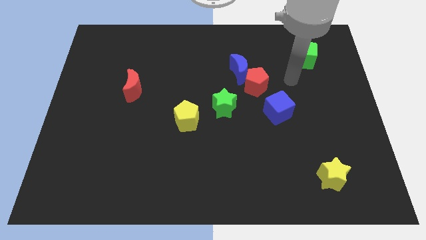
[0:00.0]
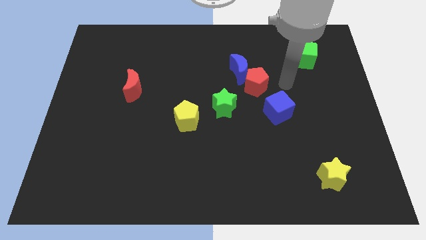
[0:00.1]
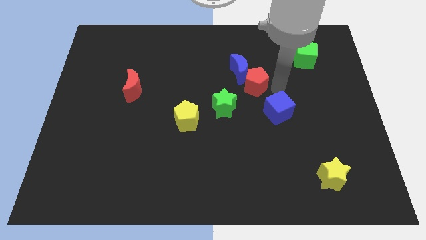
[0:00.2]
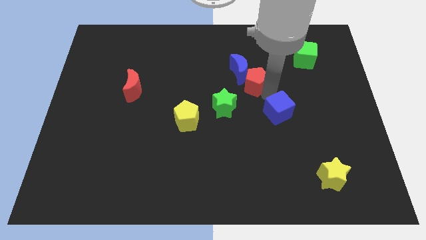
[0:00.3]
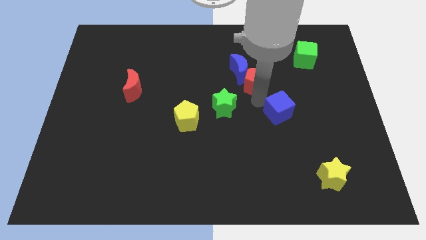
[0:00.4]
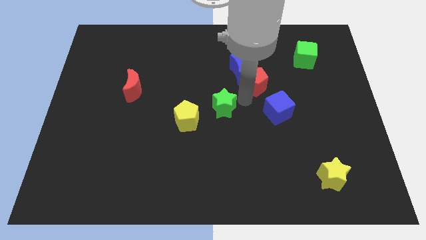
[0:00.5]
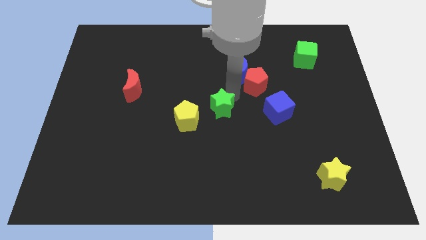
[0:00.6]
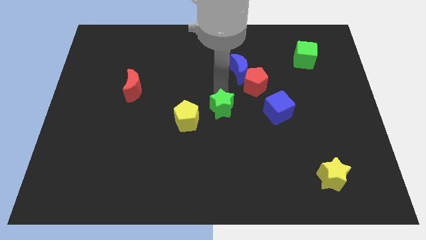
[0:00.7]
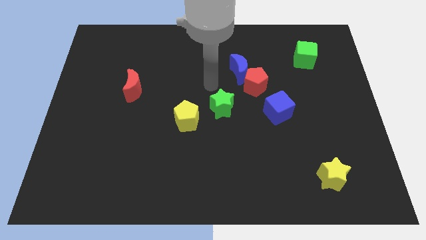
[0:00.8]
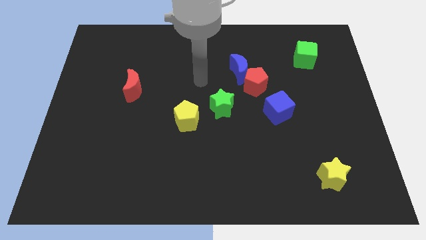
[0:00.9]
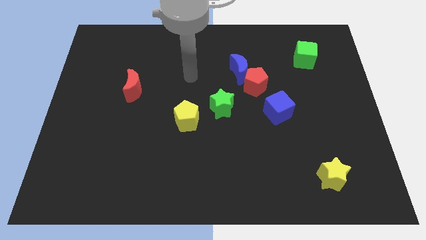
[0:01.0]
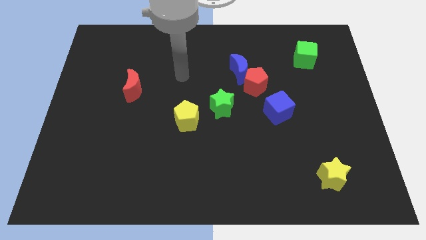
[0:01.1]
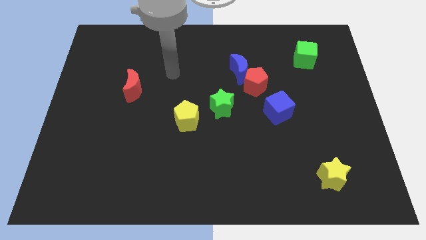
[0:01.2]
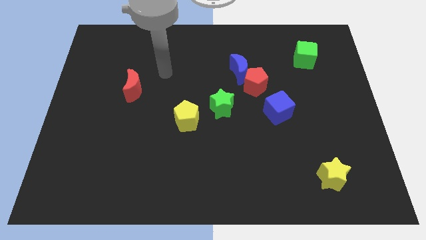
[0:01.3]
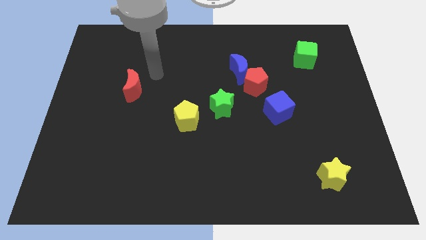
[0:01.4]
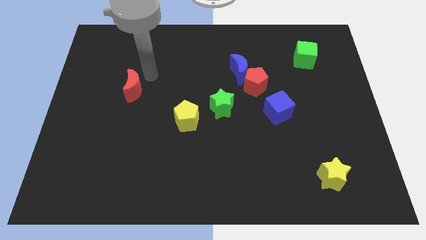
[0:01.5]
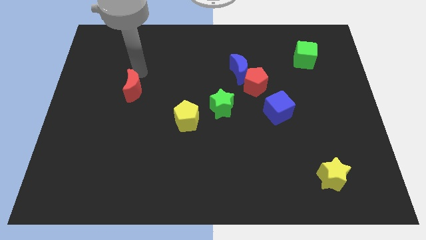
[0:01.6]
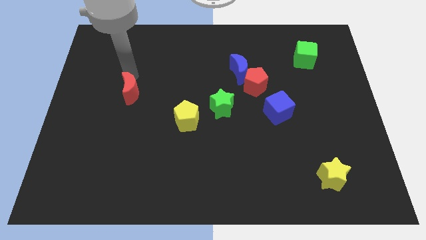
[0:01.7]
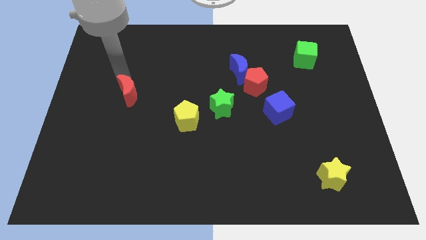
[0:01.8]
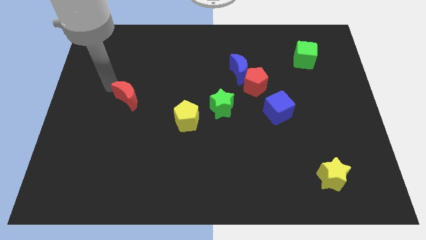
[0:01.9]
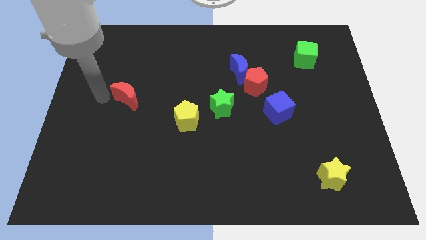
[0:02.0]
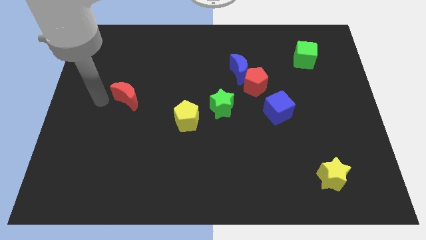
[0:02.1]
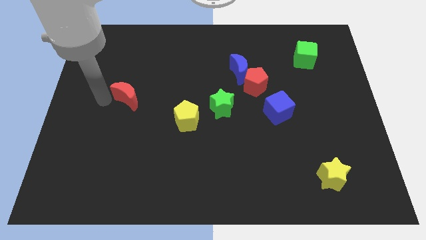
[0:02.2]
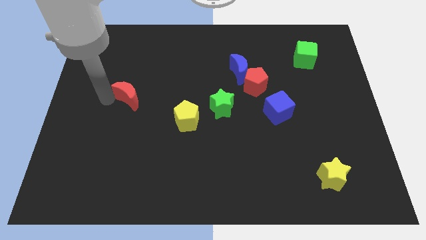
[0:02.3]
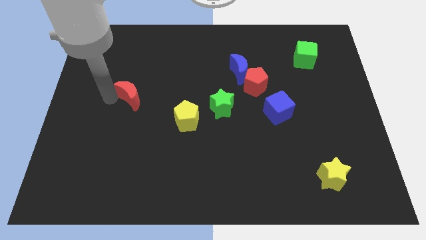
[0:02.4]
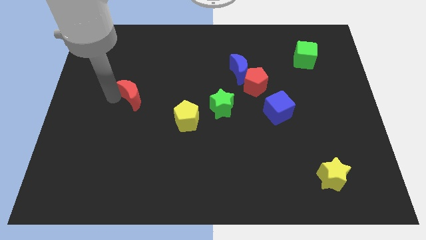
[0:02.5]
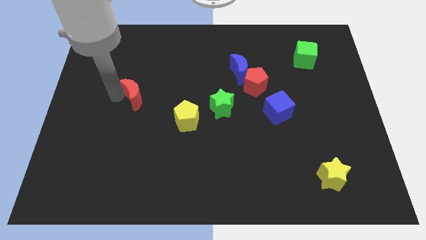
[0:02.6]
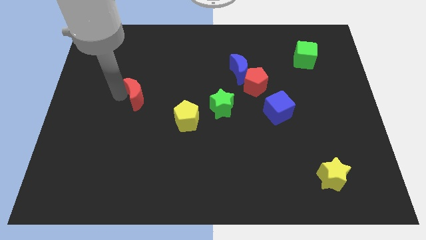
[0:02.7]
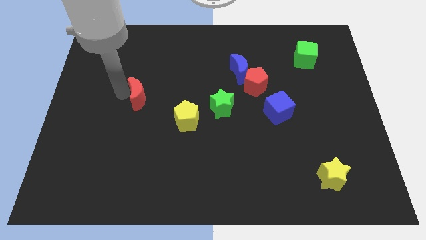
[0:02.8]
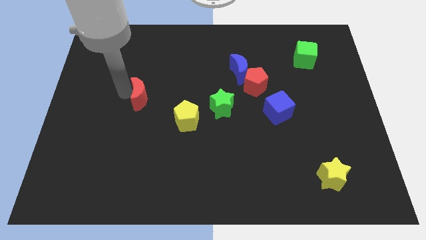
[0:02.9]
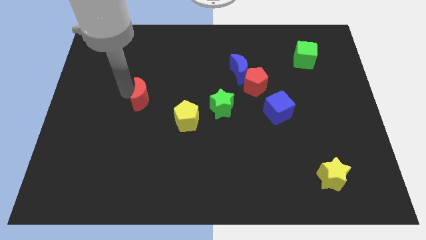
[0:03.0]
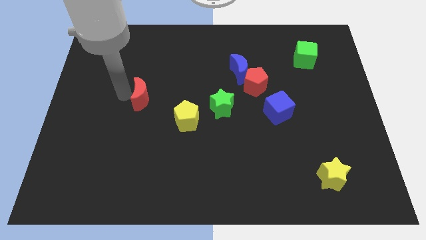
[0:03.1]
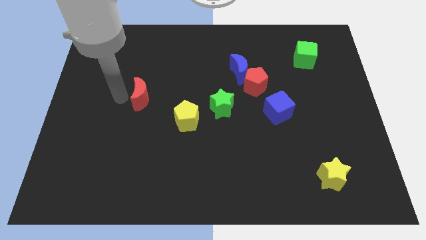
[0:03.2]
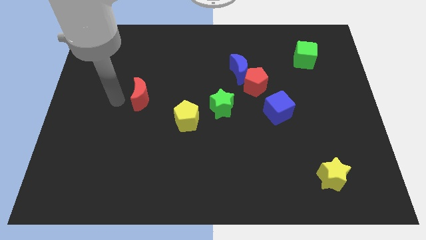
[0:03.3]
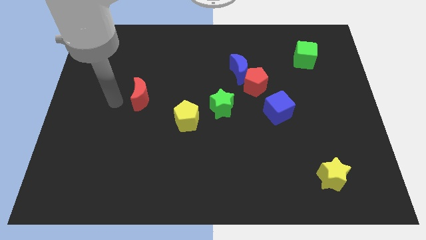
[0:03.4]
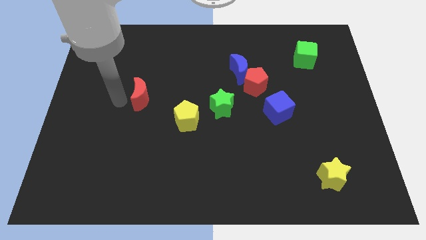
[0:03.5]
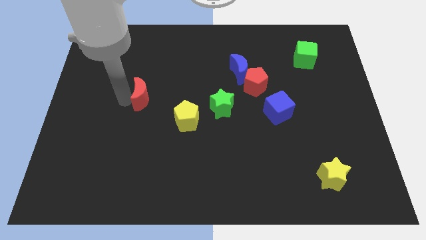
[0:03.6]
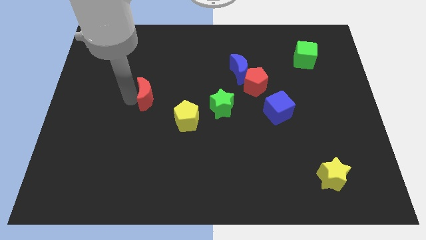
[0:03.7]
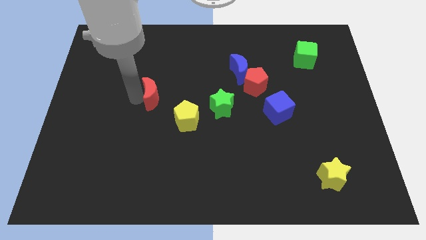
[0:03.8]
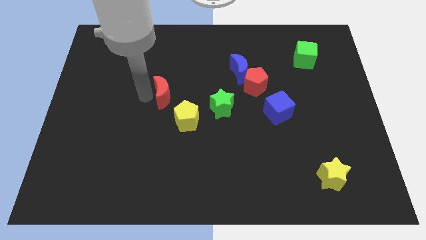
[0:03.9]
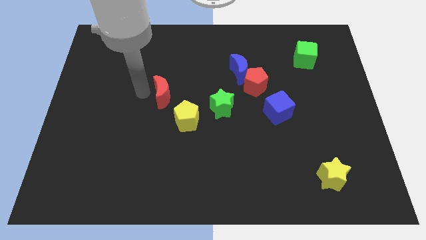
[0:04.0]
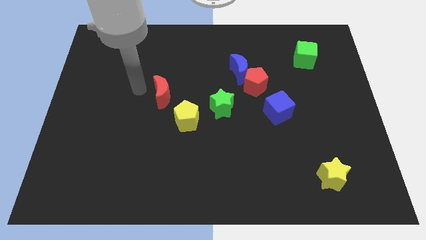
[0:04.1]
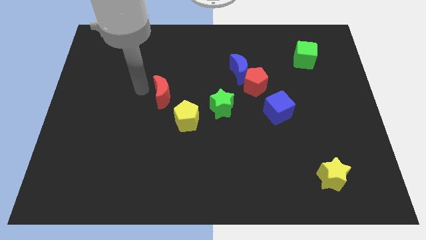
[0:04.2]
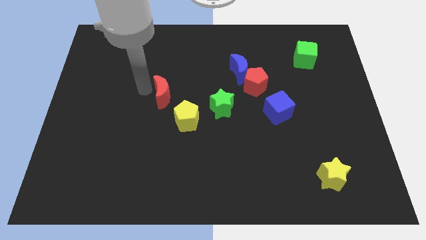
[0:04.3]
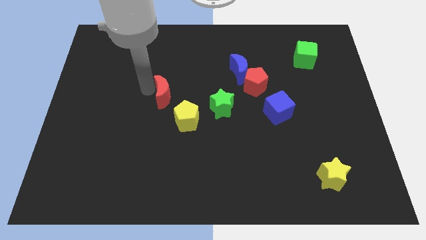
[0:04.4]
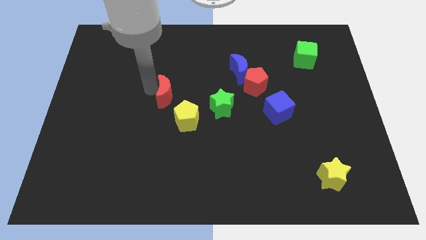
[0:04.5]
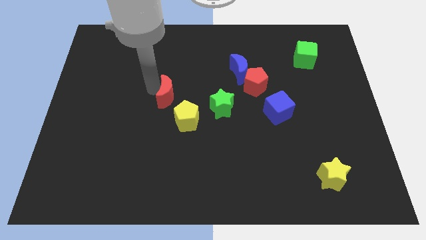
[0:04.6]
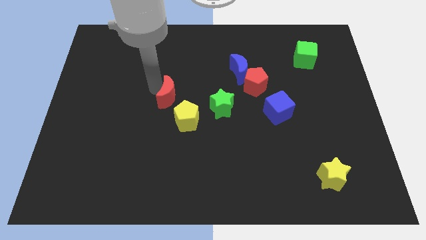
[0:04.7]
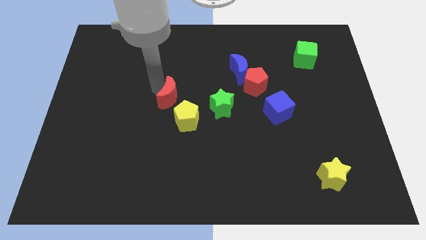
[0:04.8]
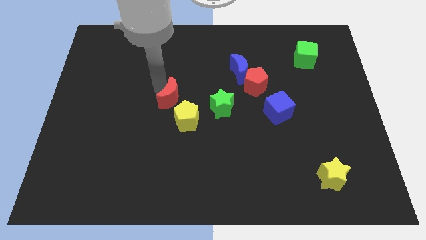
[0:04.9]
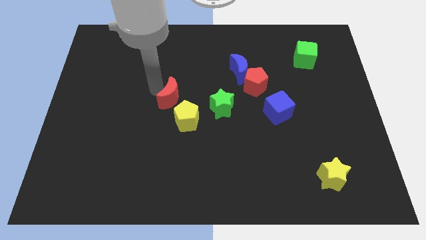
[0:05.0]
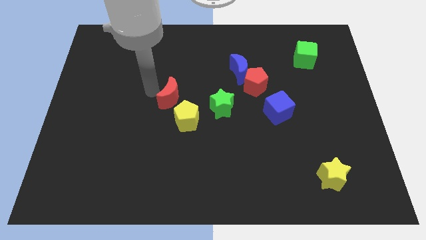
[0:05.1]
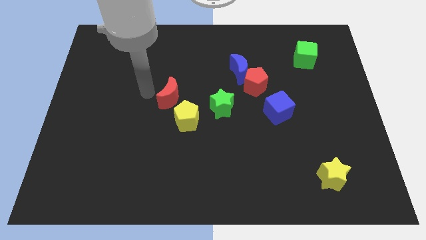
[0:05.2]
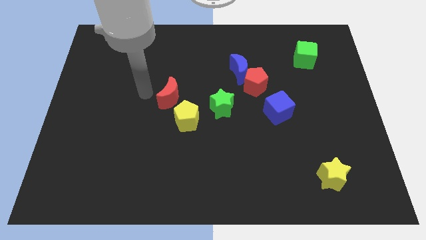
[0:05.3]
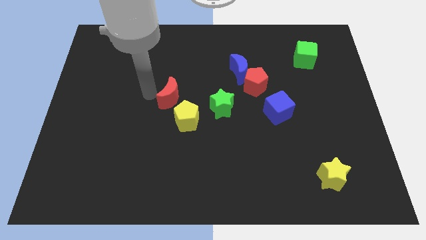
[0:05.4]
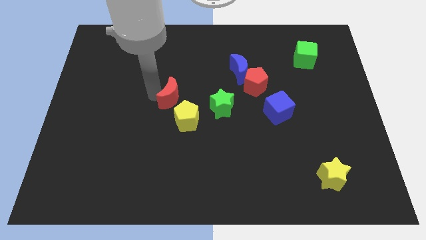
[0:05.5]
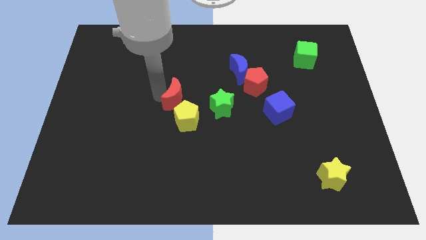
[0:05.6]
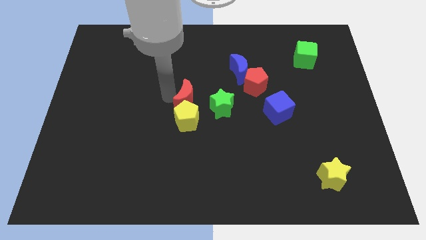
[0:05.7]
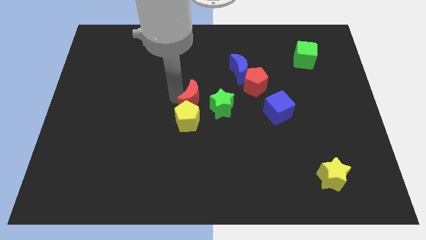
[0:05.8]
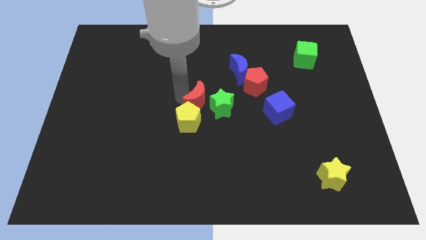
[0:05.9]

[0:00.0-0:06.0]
slide the red moon close to the green star

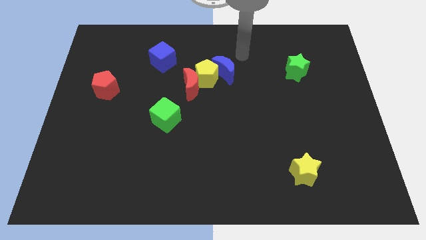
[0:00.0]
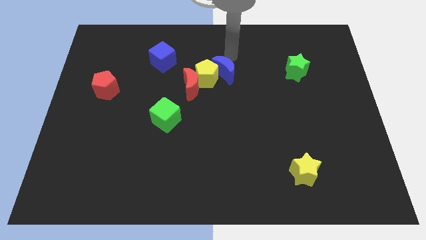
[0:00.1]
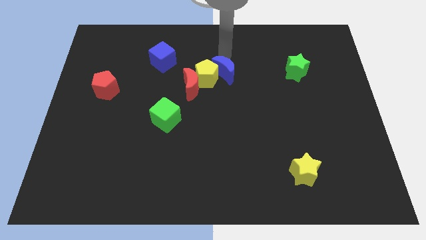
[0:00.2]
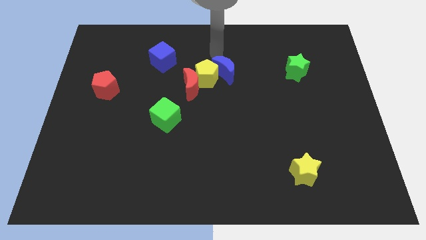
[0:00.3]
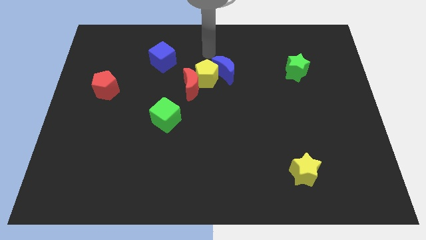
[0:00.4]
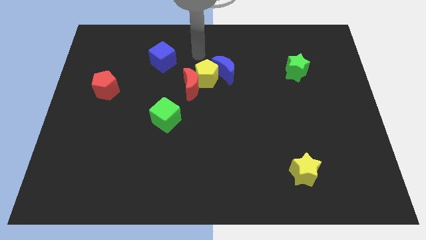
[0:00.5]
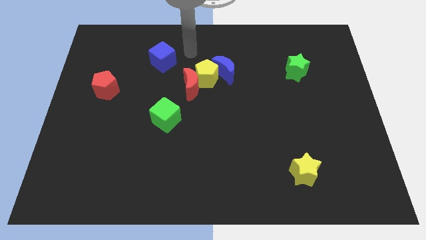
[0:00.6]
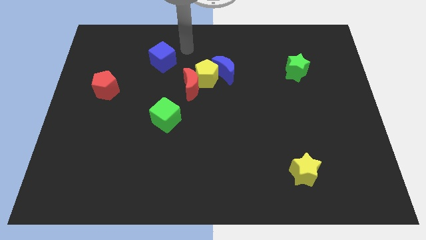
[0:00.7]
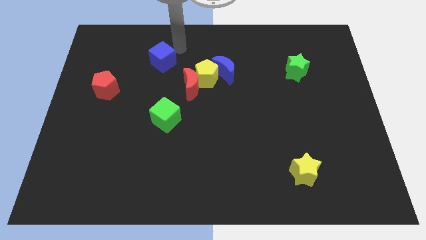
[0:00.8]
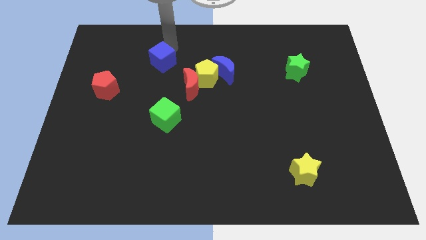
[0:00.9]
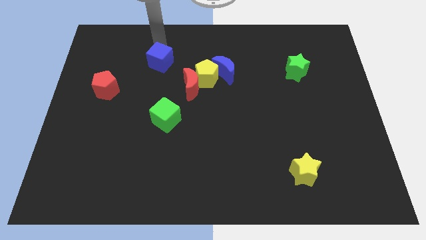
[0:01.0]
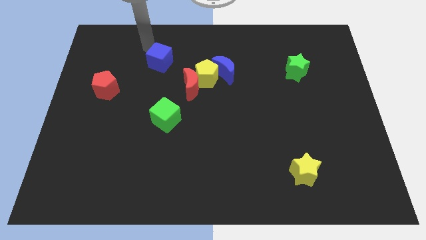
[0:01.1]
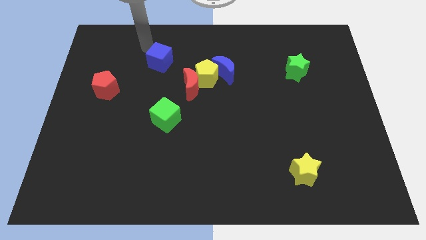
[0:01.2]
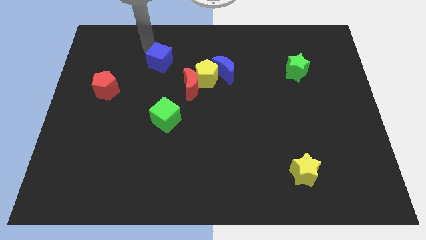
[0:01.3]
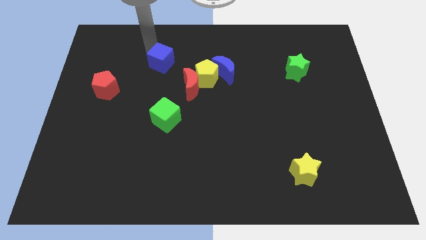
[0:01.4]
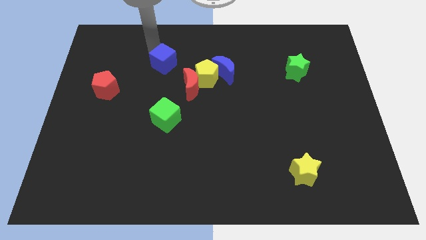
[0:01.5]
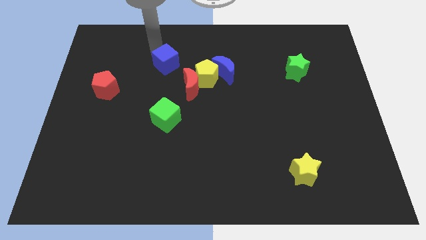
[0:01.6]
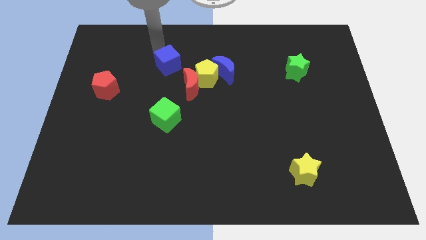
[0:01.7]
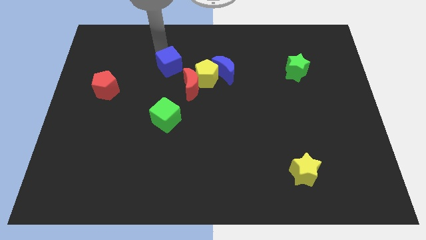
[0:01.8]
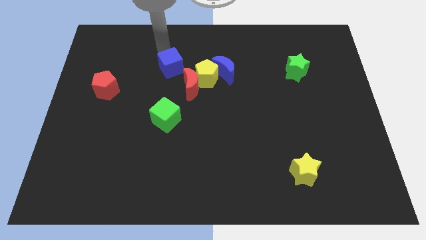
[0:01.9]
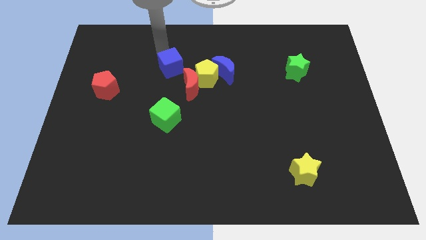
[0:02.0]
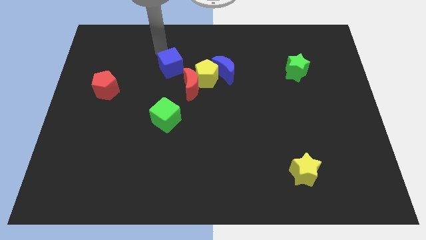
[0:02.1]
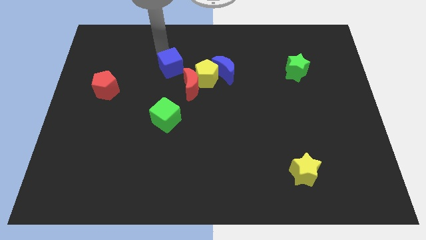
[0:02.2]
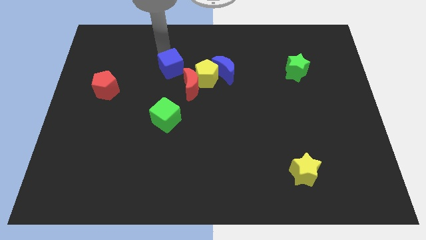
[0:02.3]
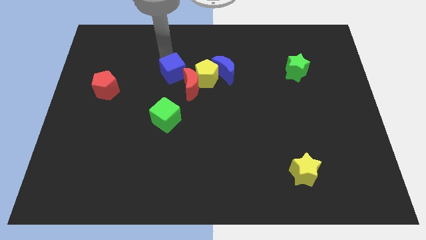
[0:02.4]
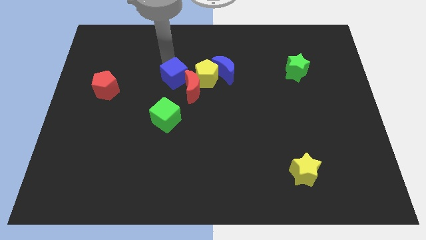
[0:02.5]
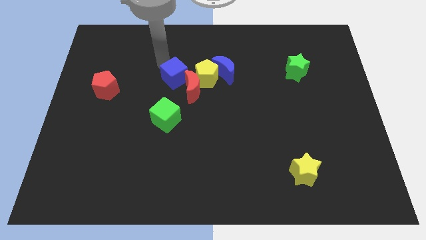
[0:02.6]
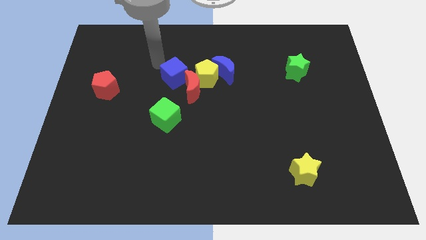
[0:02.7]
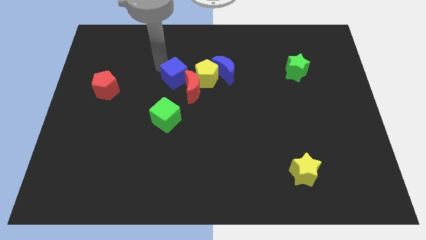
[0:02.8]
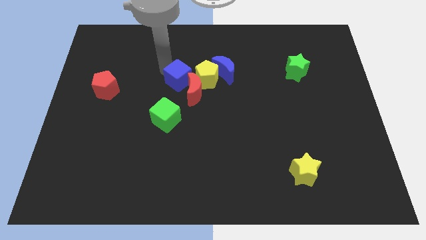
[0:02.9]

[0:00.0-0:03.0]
slide the blue cube towards the red moon
